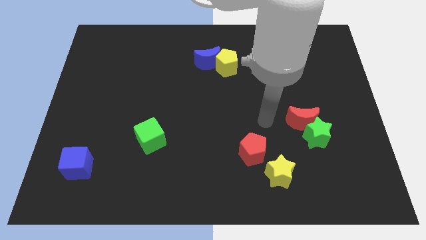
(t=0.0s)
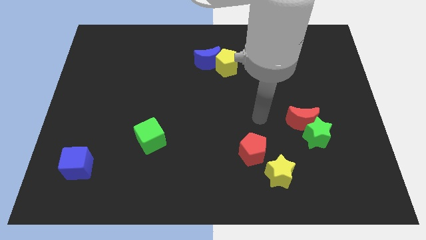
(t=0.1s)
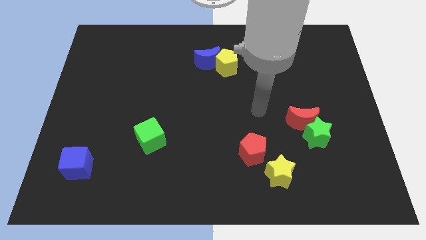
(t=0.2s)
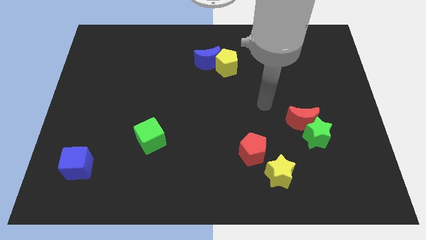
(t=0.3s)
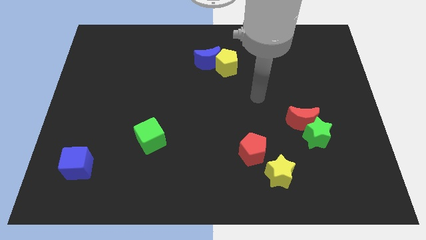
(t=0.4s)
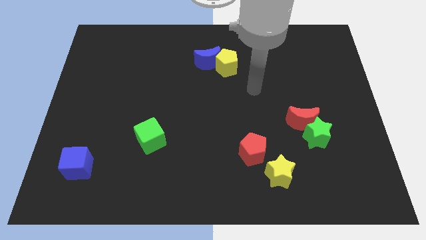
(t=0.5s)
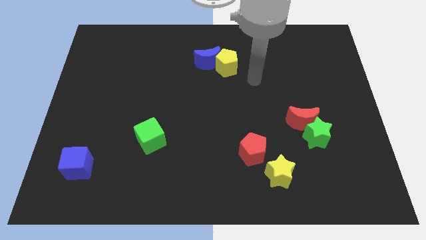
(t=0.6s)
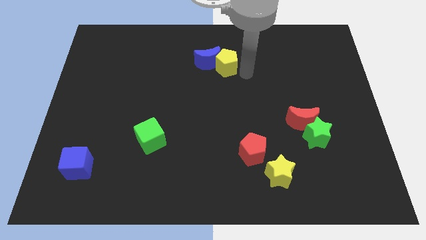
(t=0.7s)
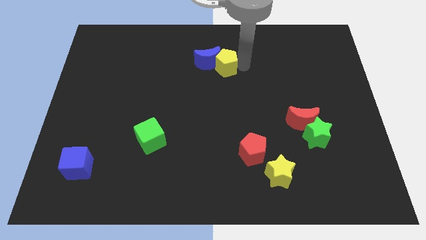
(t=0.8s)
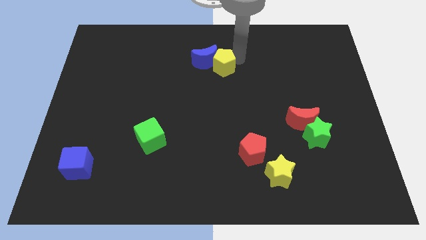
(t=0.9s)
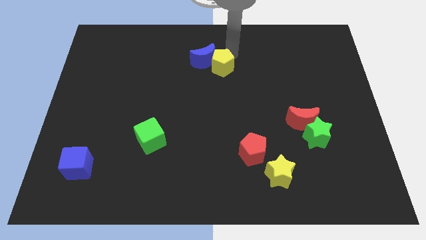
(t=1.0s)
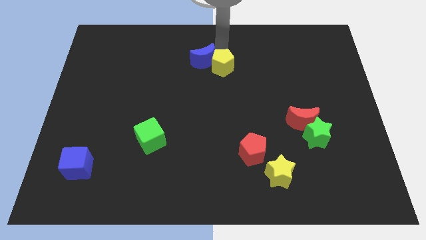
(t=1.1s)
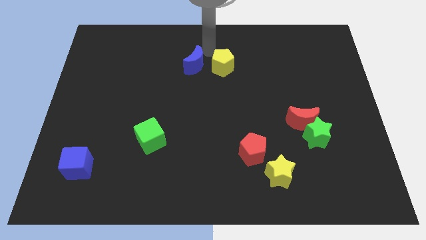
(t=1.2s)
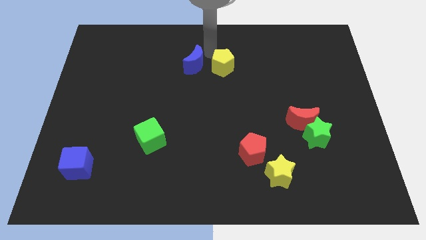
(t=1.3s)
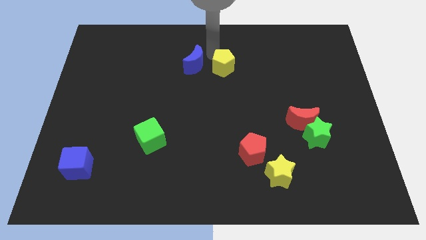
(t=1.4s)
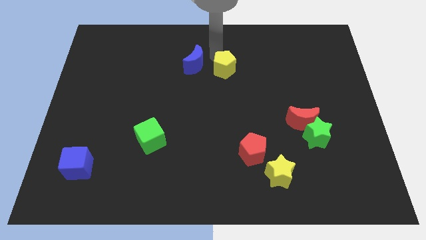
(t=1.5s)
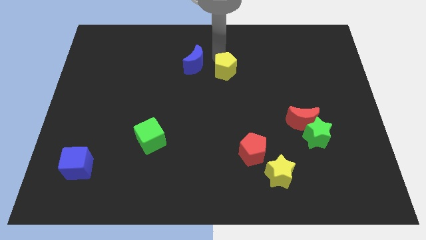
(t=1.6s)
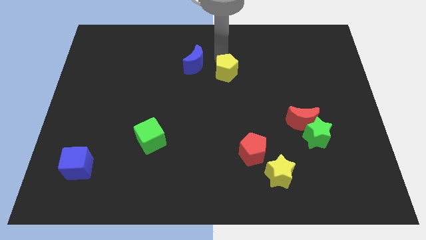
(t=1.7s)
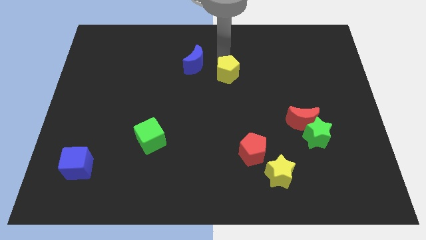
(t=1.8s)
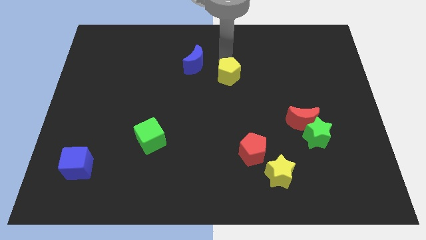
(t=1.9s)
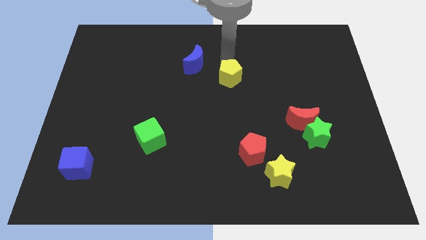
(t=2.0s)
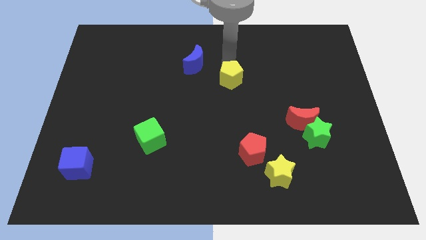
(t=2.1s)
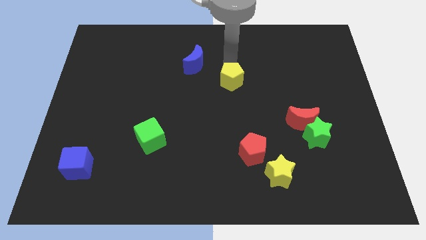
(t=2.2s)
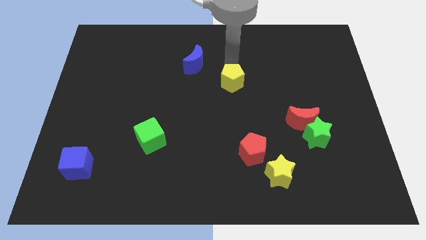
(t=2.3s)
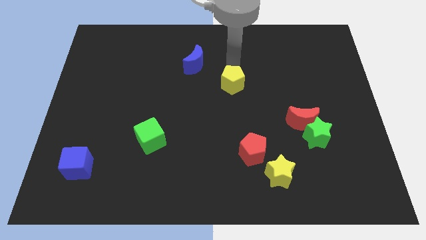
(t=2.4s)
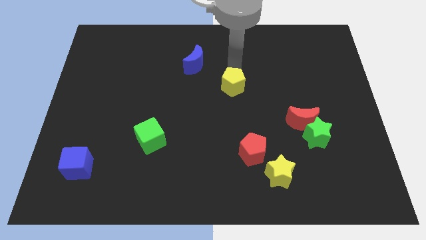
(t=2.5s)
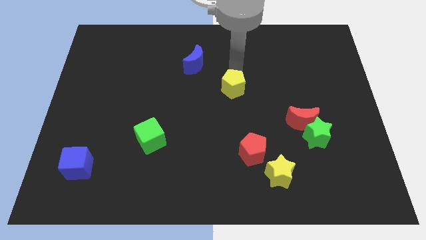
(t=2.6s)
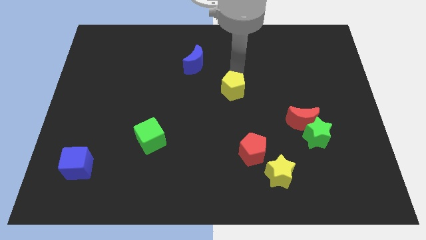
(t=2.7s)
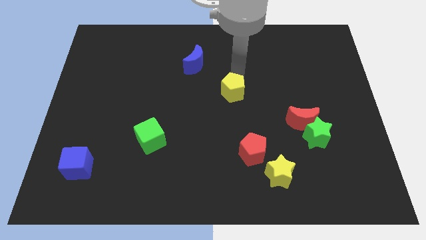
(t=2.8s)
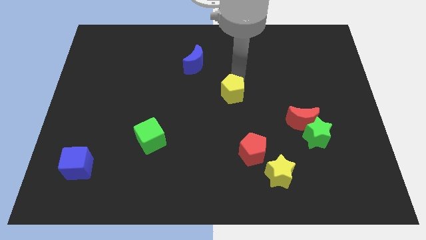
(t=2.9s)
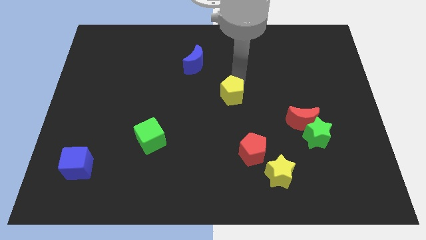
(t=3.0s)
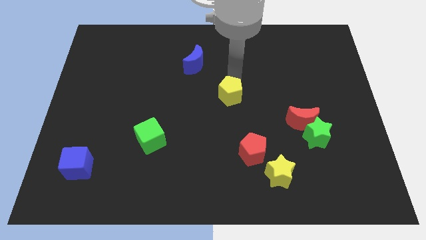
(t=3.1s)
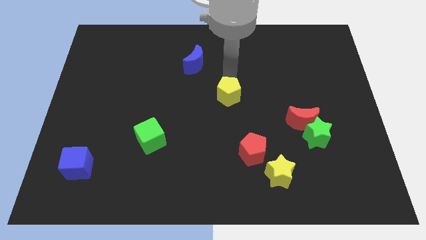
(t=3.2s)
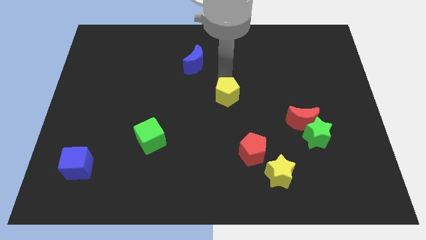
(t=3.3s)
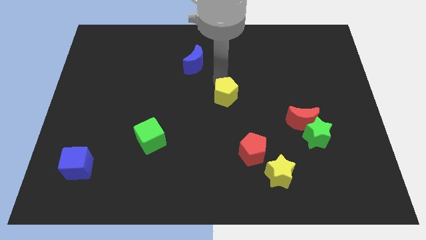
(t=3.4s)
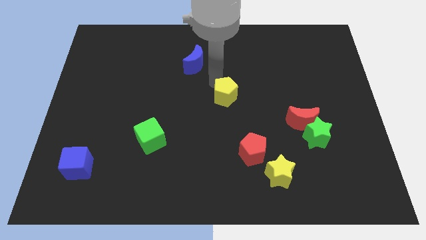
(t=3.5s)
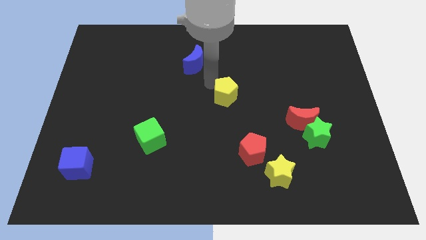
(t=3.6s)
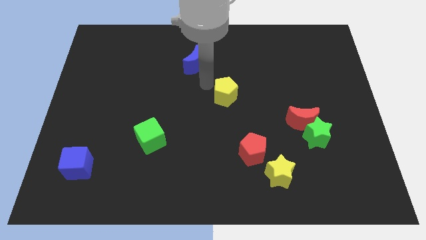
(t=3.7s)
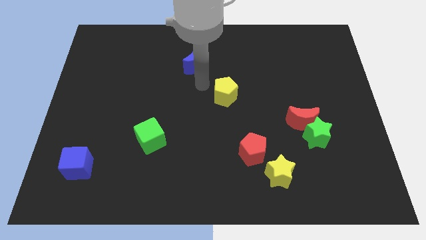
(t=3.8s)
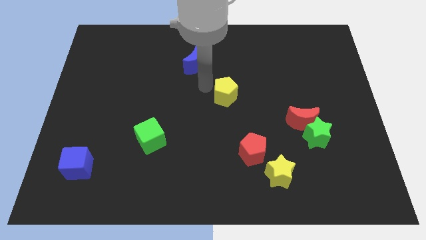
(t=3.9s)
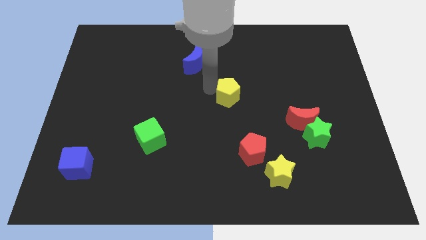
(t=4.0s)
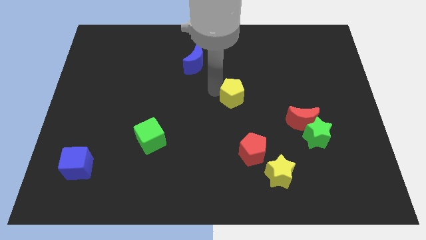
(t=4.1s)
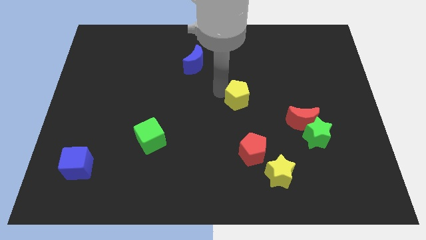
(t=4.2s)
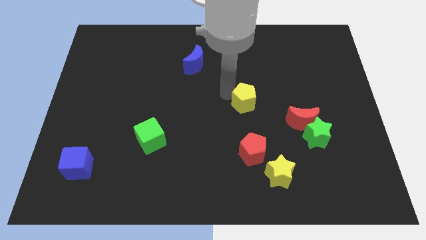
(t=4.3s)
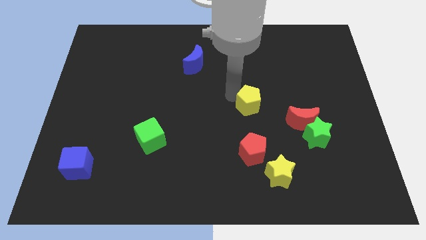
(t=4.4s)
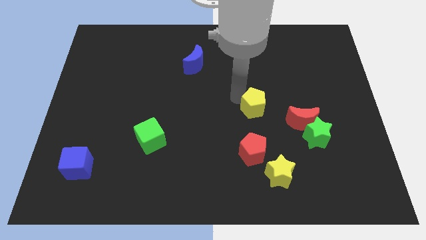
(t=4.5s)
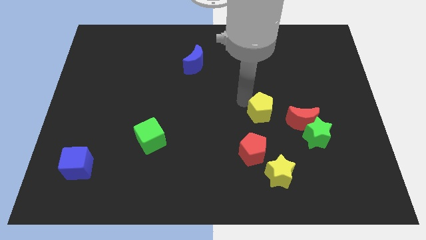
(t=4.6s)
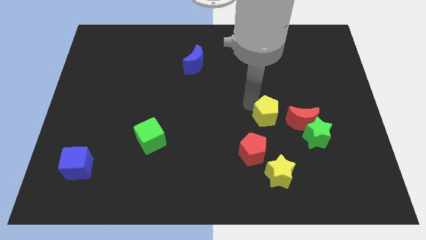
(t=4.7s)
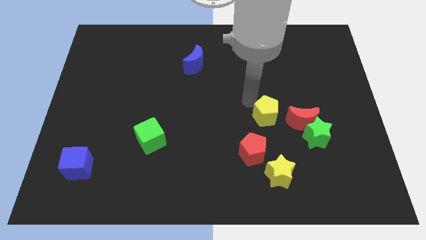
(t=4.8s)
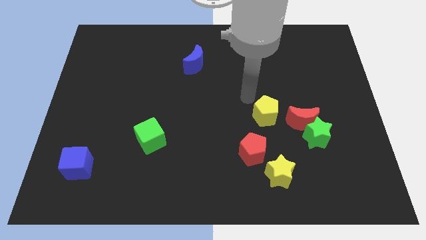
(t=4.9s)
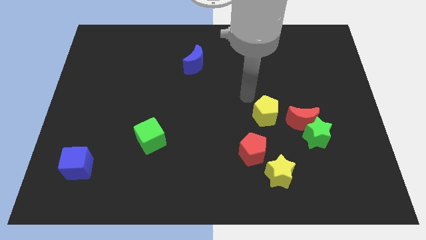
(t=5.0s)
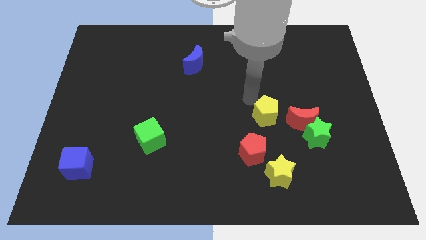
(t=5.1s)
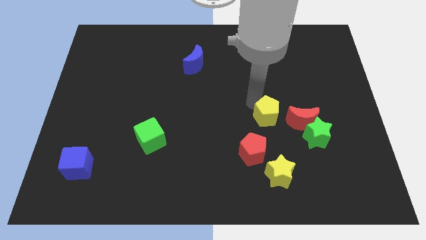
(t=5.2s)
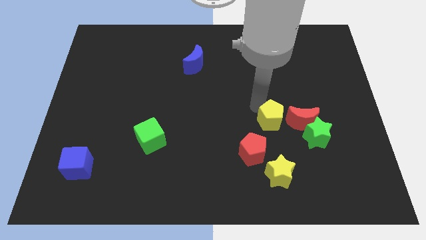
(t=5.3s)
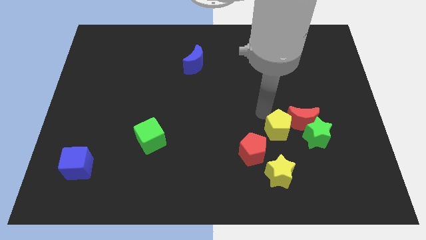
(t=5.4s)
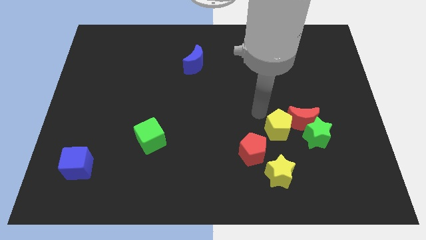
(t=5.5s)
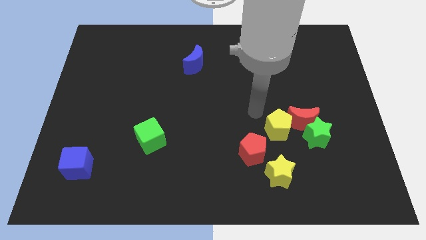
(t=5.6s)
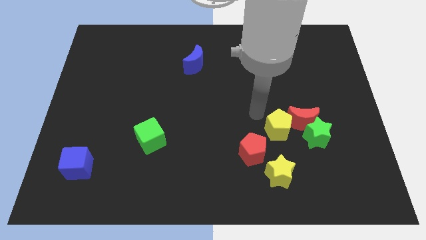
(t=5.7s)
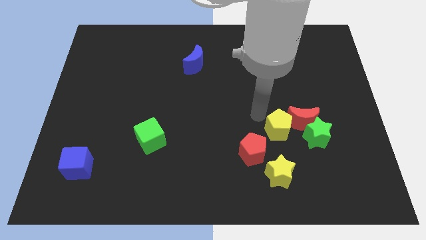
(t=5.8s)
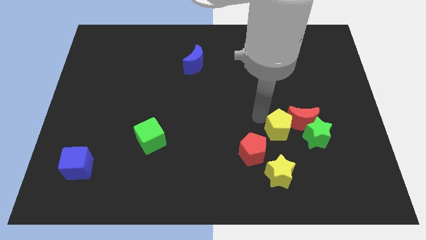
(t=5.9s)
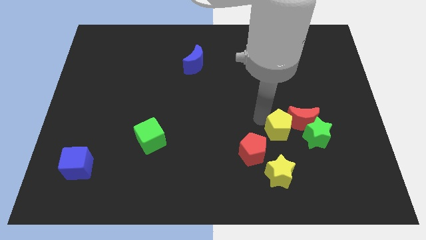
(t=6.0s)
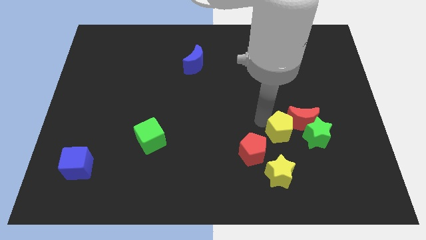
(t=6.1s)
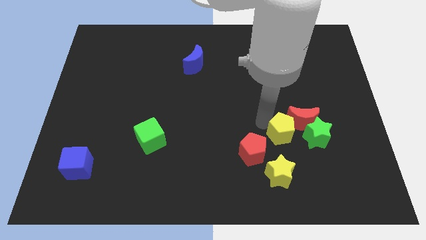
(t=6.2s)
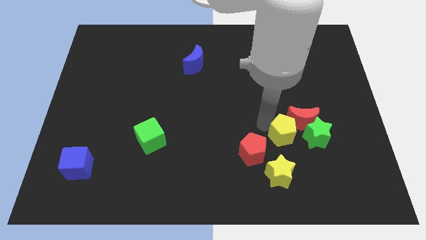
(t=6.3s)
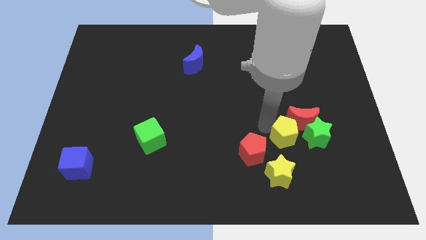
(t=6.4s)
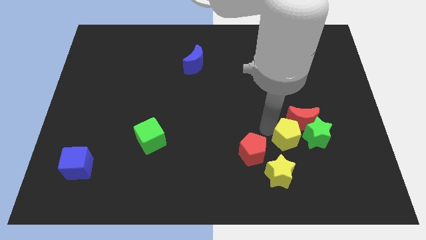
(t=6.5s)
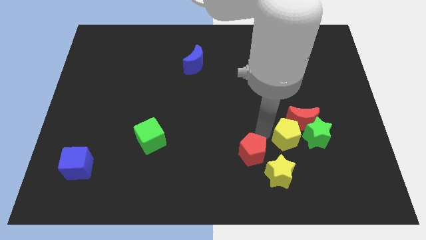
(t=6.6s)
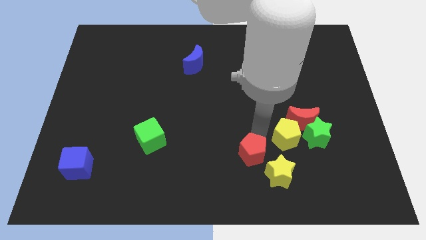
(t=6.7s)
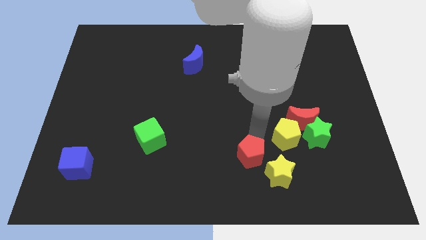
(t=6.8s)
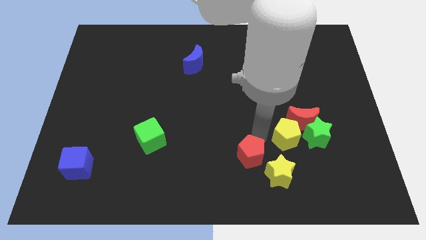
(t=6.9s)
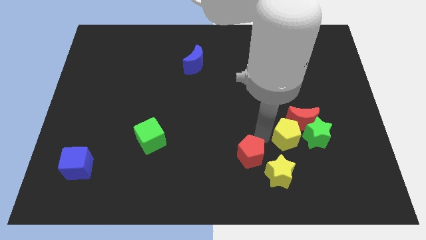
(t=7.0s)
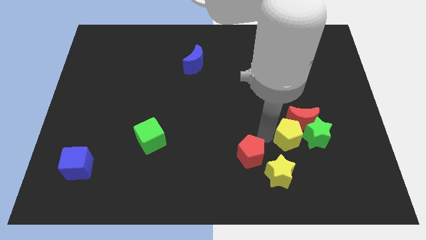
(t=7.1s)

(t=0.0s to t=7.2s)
put the yellow pentagon towards the green star
